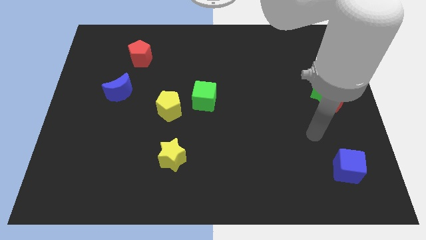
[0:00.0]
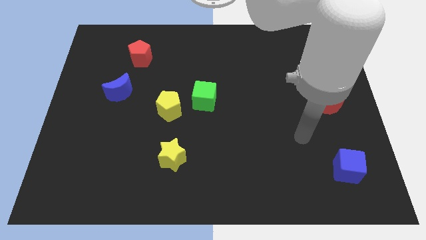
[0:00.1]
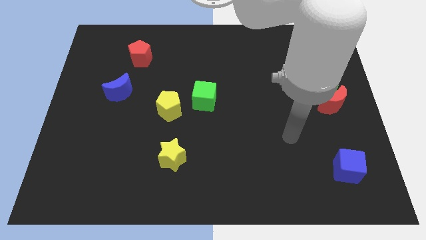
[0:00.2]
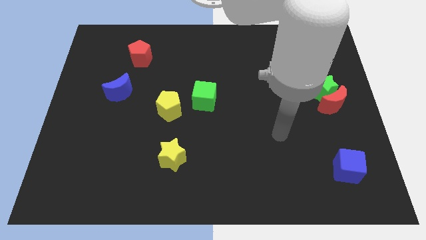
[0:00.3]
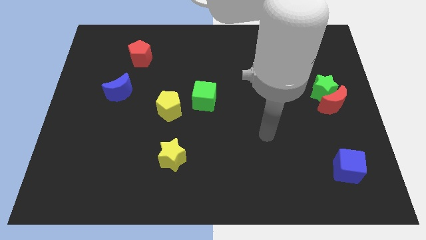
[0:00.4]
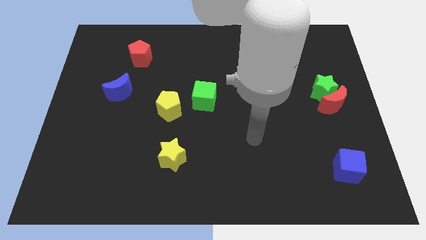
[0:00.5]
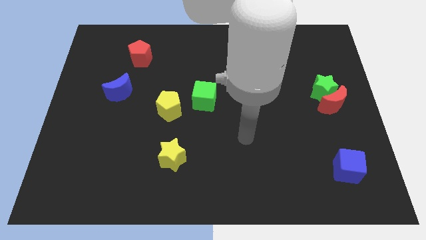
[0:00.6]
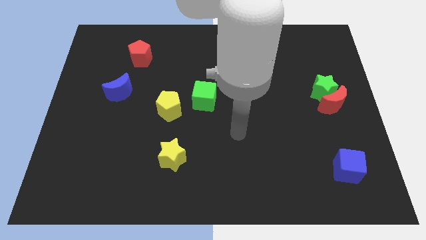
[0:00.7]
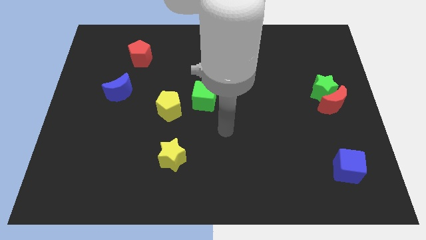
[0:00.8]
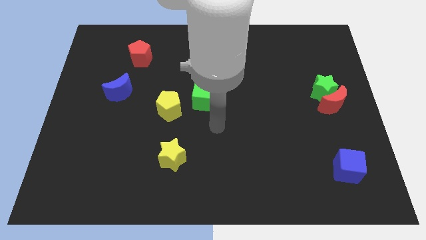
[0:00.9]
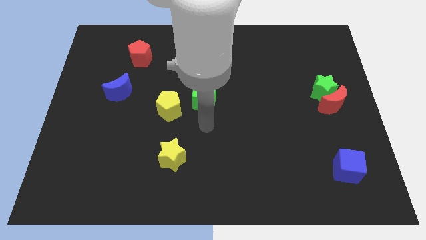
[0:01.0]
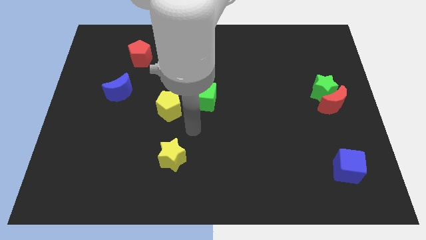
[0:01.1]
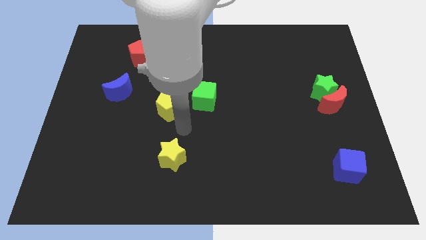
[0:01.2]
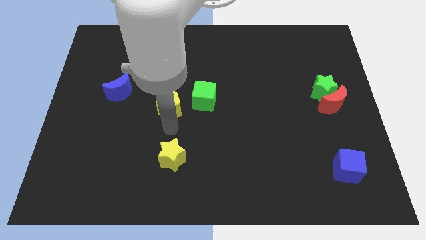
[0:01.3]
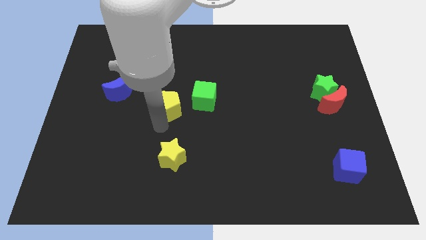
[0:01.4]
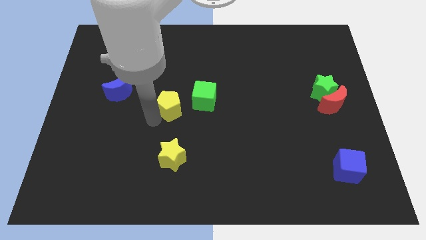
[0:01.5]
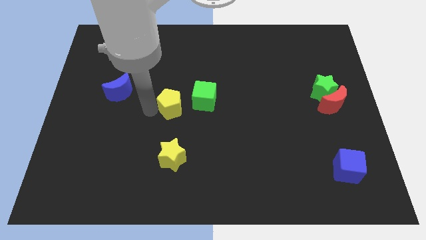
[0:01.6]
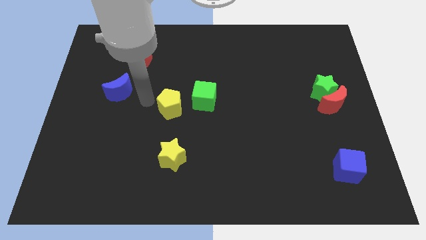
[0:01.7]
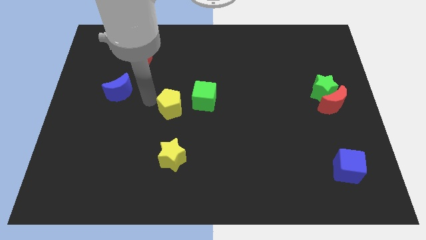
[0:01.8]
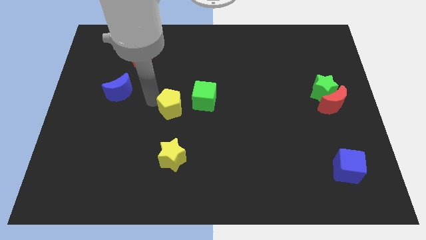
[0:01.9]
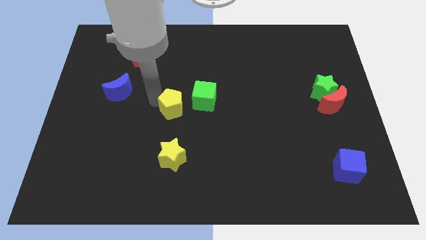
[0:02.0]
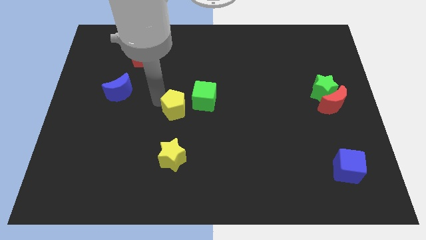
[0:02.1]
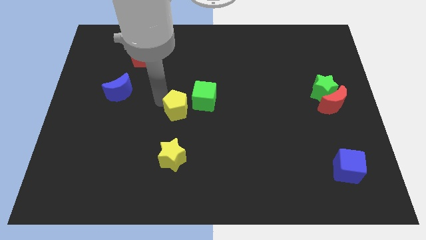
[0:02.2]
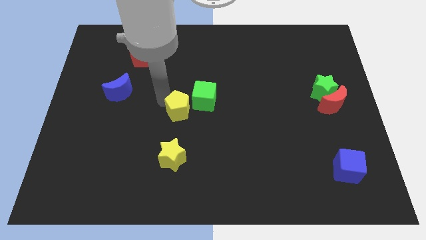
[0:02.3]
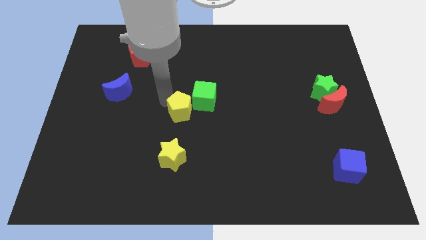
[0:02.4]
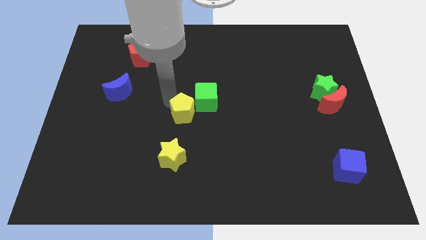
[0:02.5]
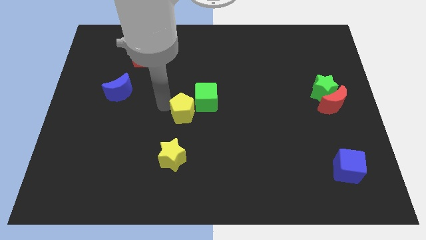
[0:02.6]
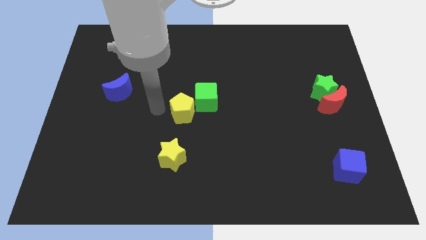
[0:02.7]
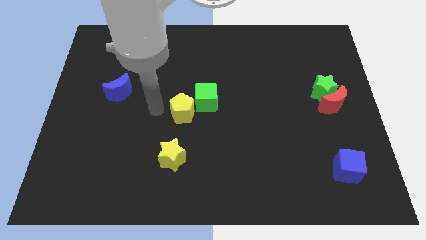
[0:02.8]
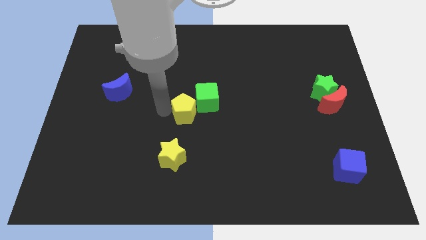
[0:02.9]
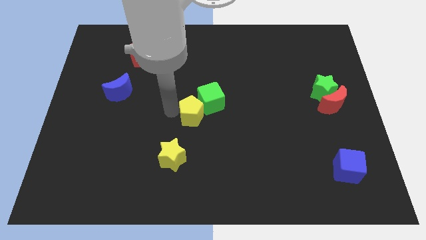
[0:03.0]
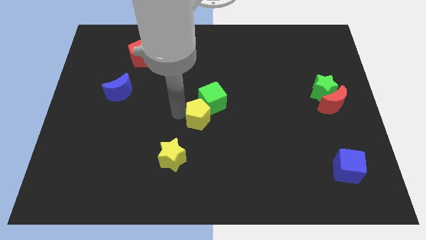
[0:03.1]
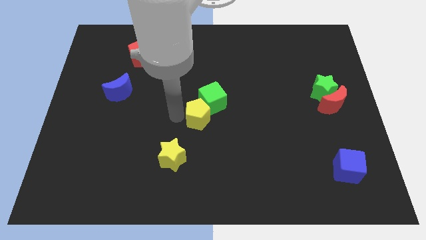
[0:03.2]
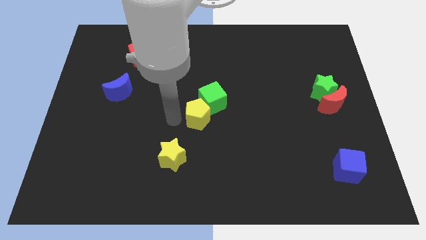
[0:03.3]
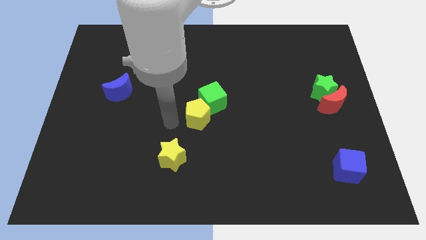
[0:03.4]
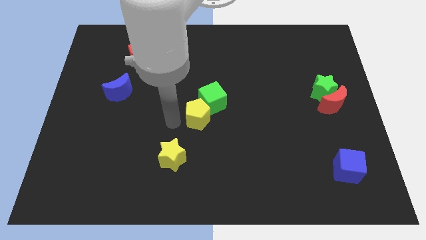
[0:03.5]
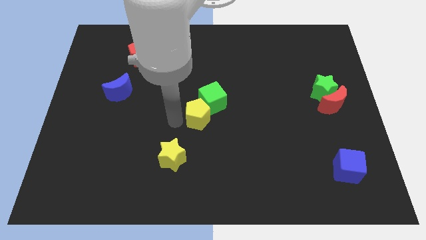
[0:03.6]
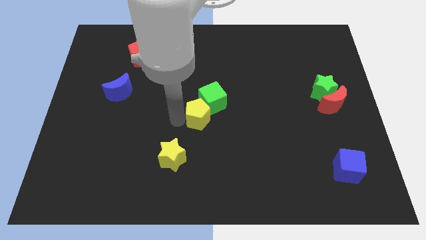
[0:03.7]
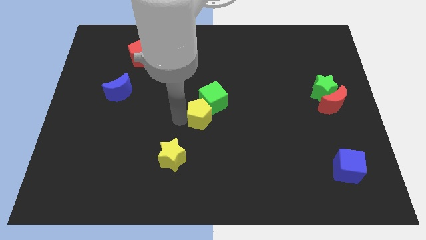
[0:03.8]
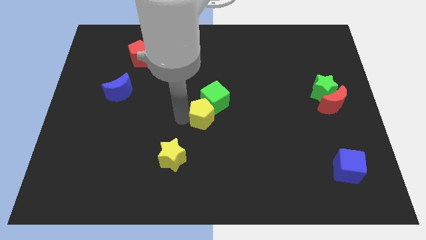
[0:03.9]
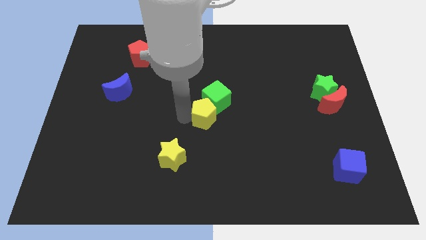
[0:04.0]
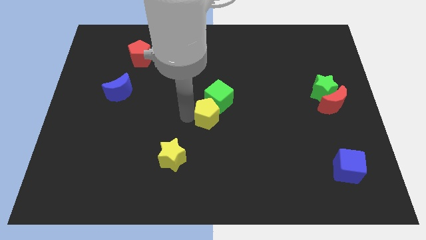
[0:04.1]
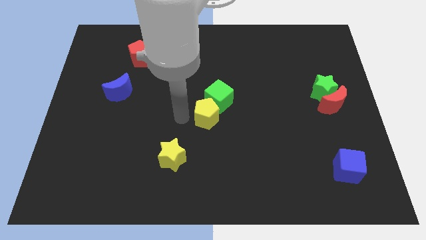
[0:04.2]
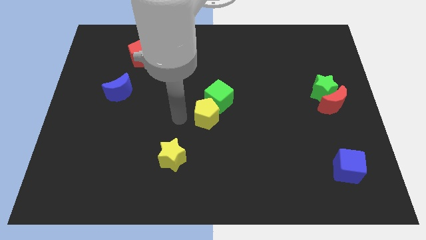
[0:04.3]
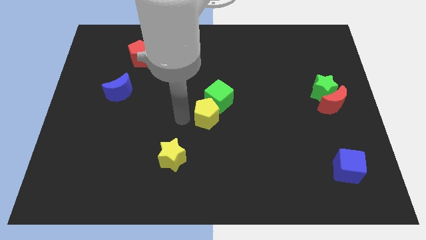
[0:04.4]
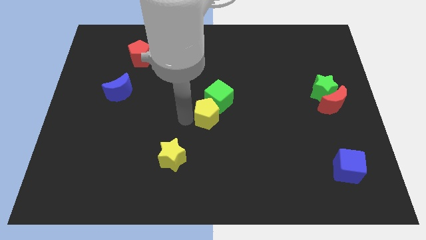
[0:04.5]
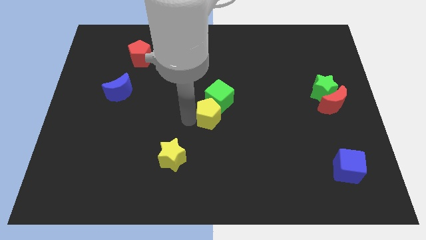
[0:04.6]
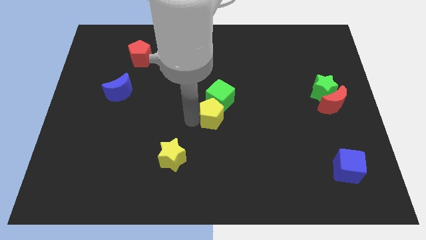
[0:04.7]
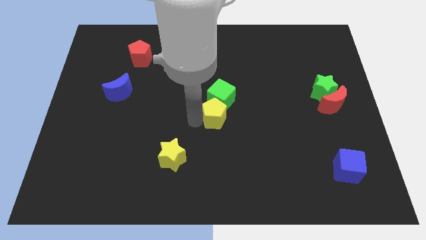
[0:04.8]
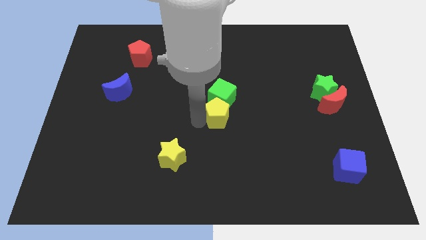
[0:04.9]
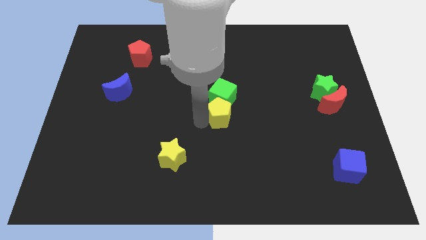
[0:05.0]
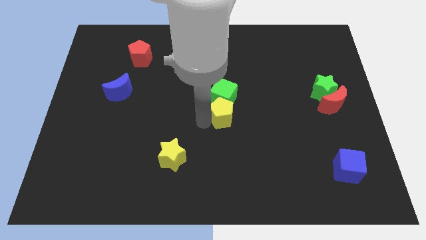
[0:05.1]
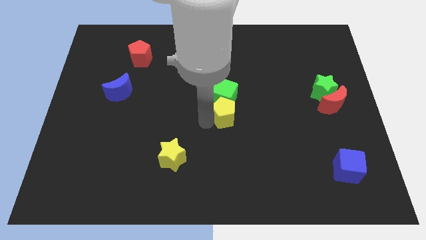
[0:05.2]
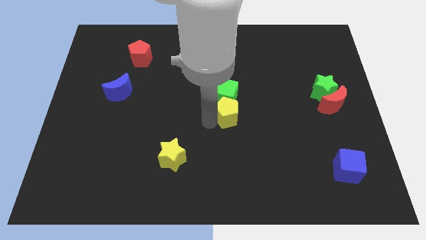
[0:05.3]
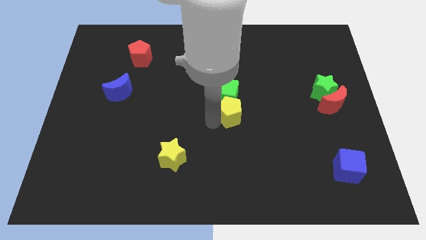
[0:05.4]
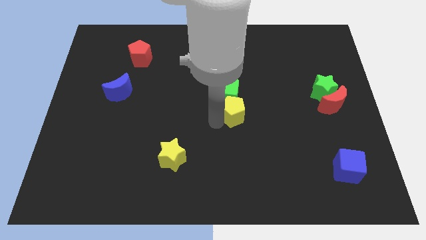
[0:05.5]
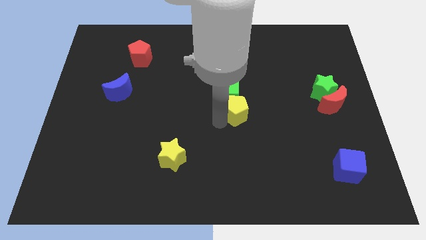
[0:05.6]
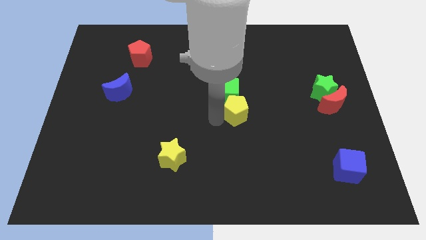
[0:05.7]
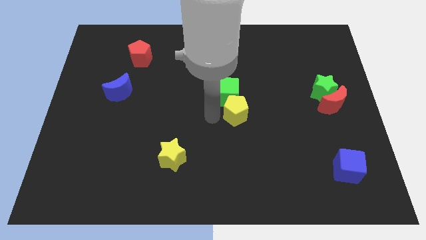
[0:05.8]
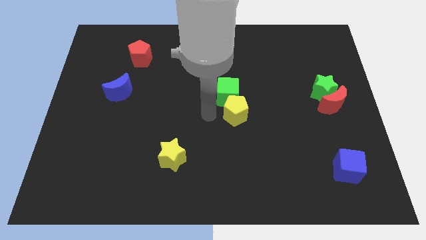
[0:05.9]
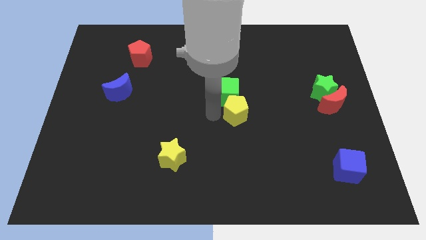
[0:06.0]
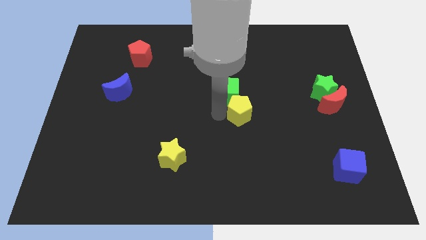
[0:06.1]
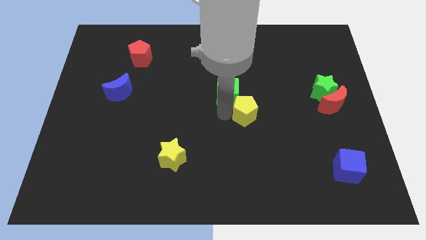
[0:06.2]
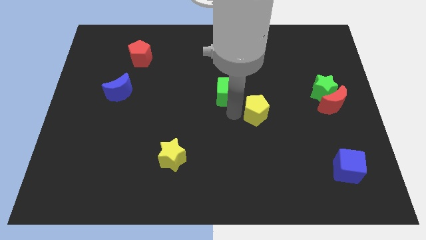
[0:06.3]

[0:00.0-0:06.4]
move the yellow pentagon to the right

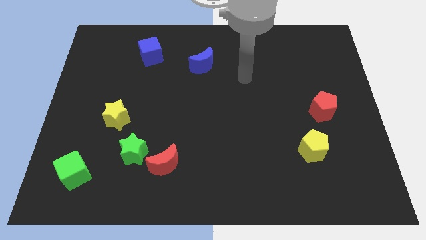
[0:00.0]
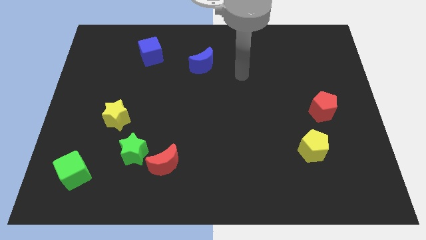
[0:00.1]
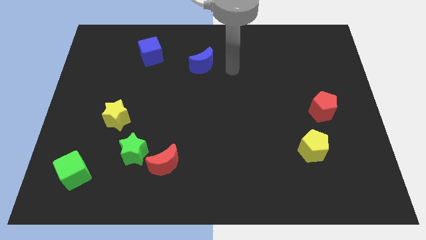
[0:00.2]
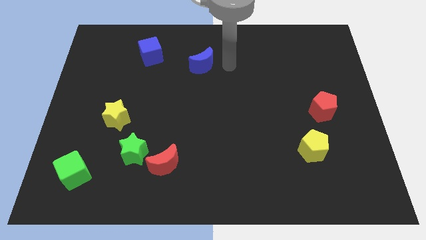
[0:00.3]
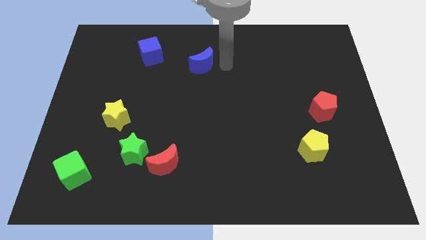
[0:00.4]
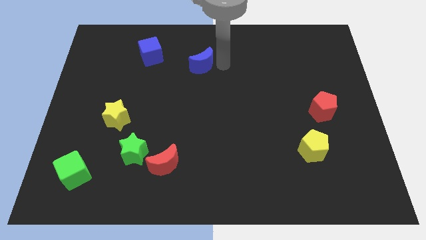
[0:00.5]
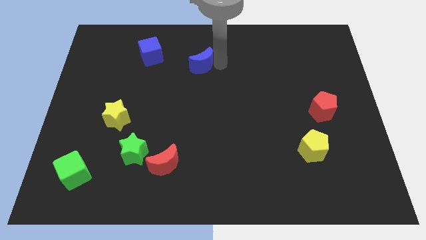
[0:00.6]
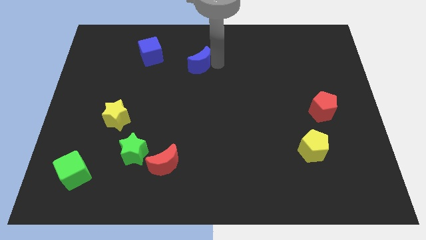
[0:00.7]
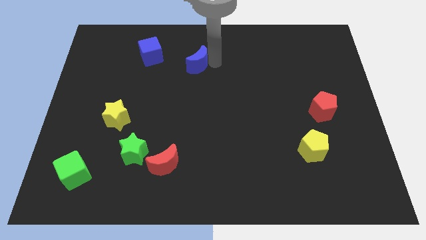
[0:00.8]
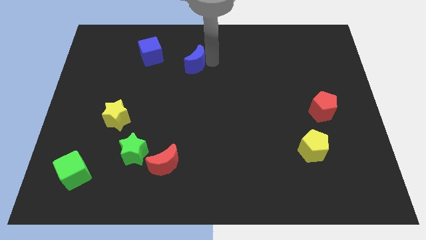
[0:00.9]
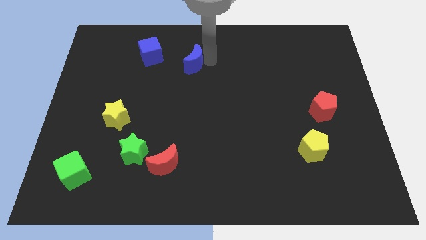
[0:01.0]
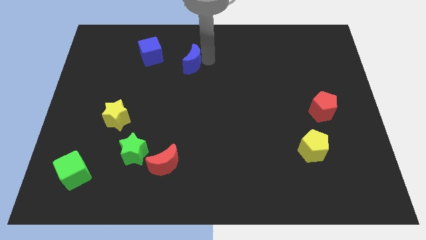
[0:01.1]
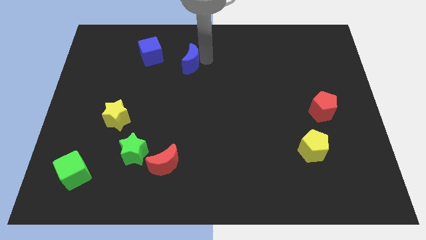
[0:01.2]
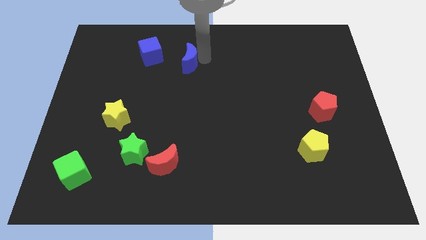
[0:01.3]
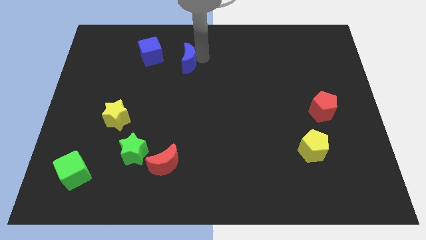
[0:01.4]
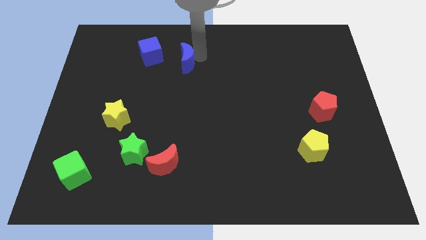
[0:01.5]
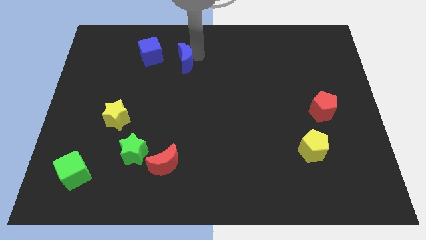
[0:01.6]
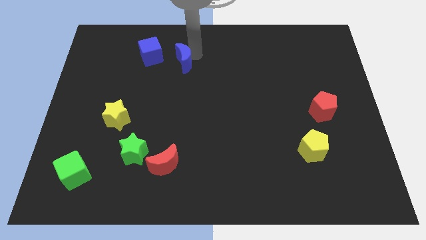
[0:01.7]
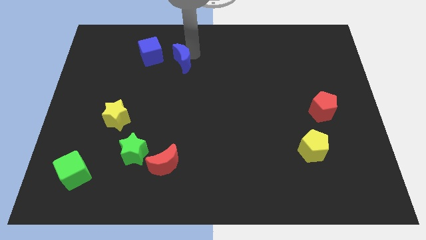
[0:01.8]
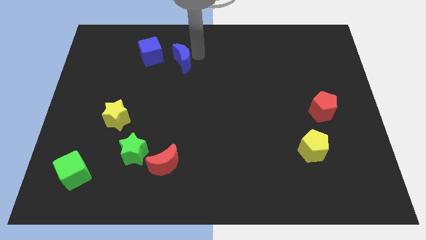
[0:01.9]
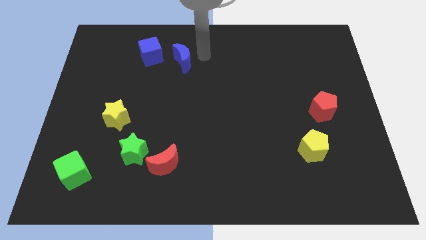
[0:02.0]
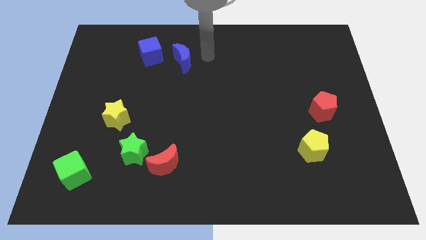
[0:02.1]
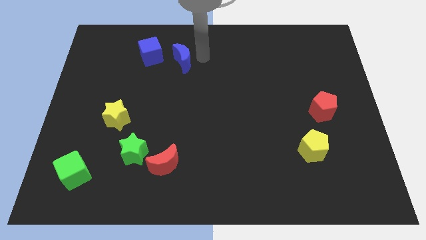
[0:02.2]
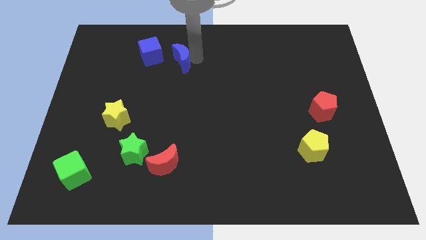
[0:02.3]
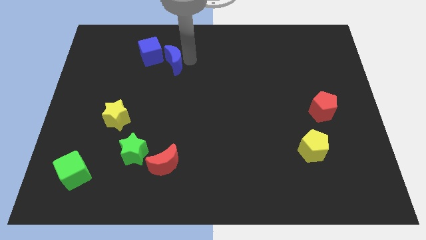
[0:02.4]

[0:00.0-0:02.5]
slightly move the blue moon to the left
